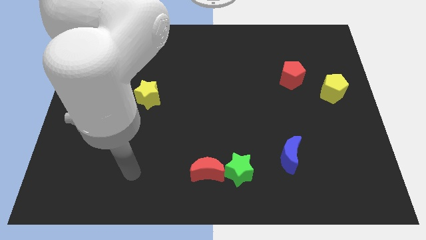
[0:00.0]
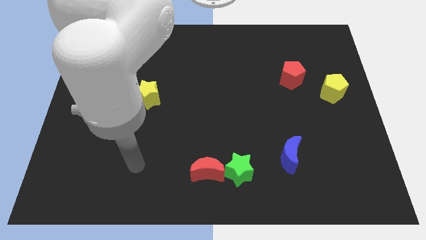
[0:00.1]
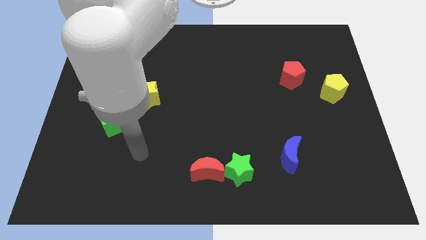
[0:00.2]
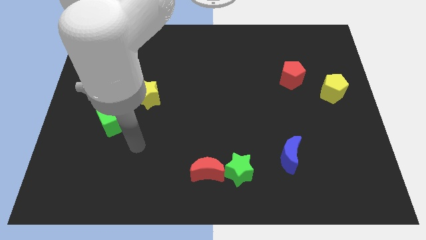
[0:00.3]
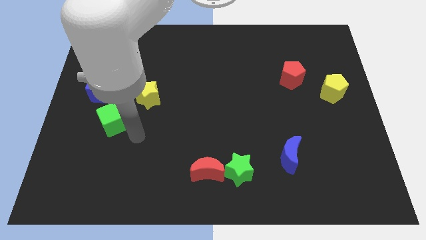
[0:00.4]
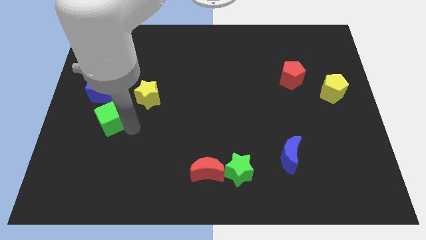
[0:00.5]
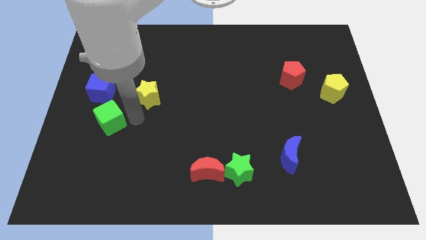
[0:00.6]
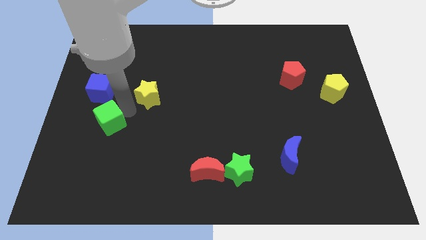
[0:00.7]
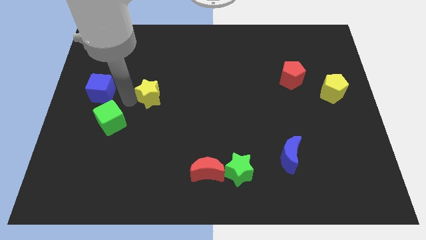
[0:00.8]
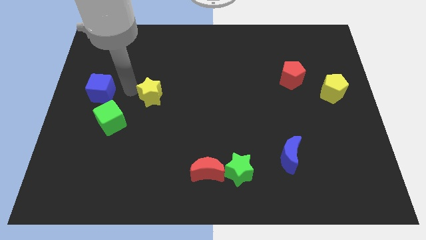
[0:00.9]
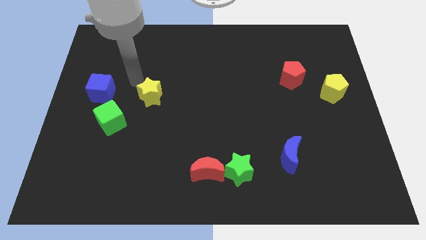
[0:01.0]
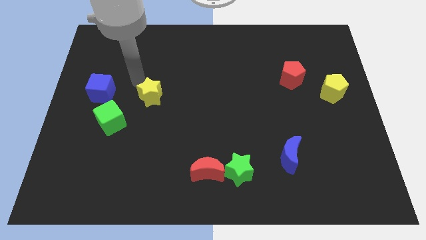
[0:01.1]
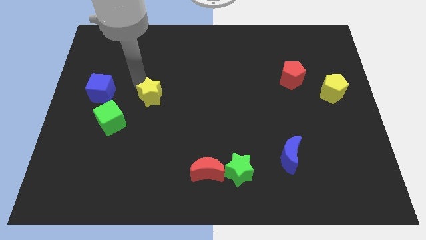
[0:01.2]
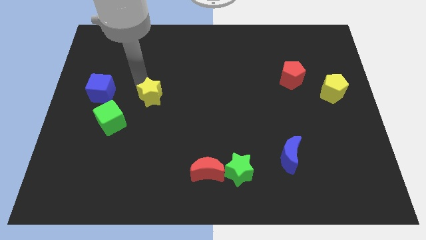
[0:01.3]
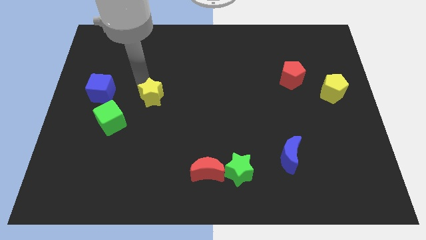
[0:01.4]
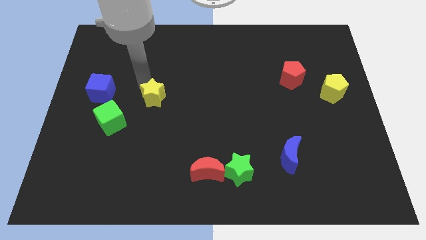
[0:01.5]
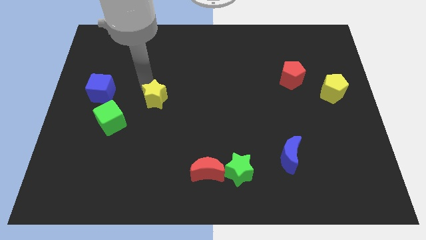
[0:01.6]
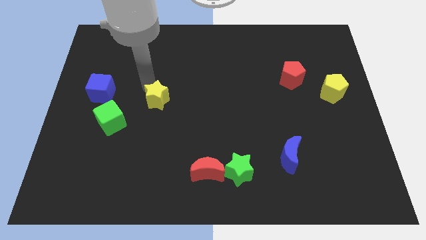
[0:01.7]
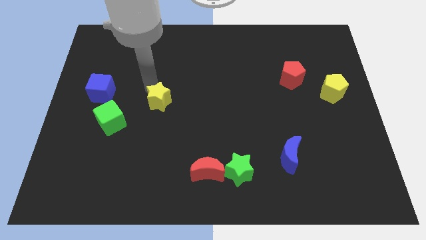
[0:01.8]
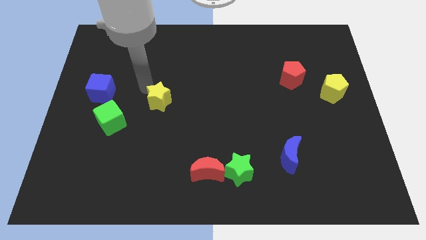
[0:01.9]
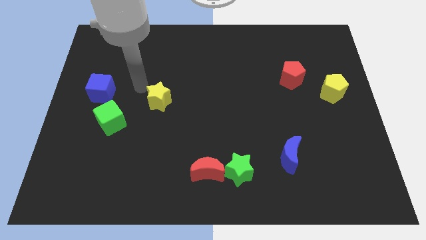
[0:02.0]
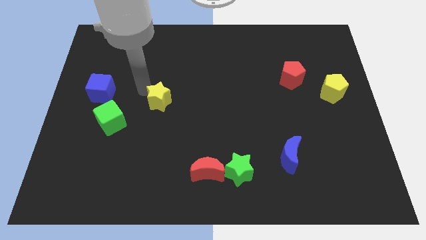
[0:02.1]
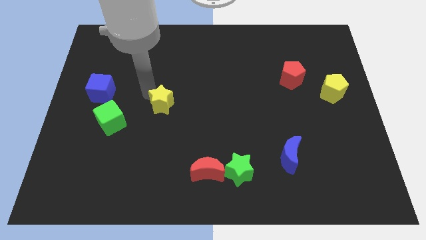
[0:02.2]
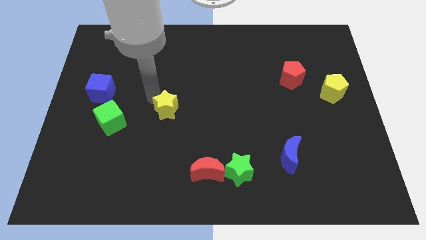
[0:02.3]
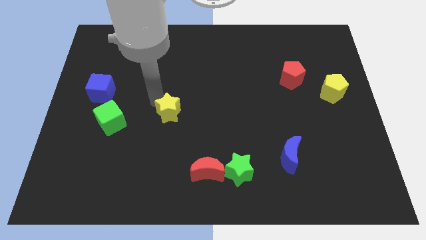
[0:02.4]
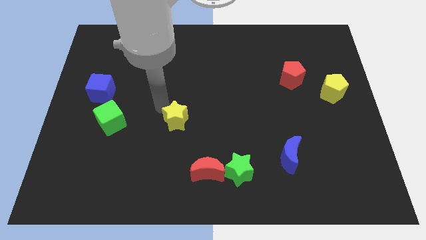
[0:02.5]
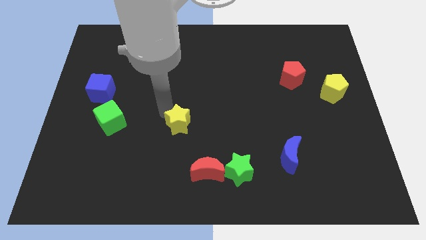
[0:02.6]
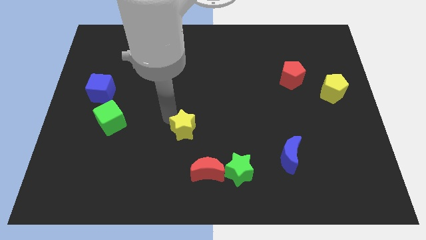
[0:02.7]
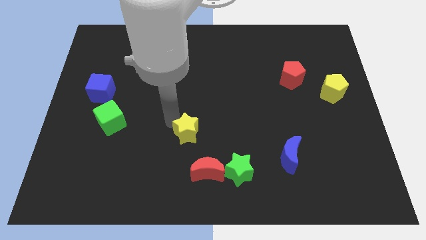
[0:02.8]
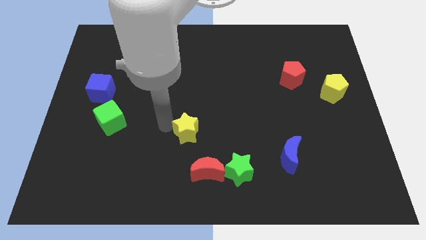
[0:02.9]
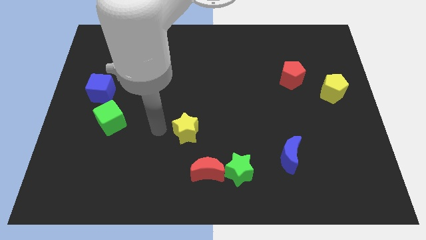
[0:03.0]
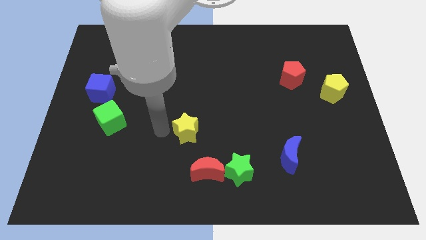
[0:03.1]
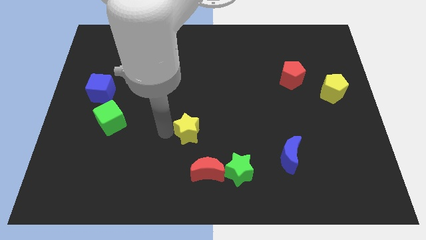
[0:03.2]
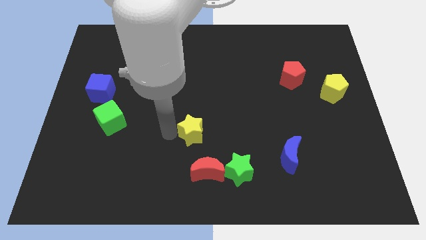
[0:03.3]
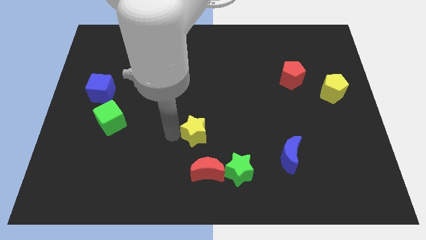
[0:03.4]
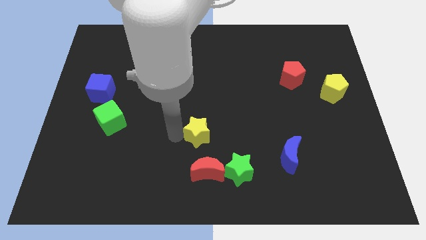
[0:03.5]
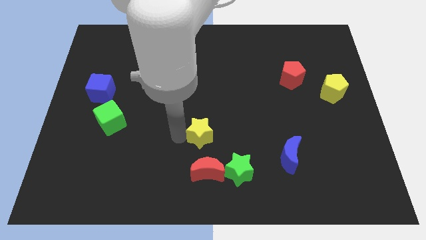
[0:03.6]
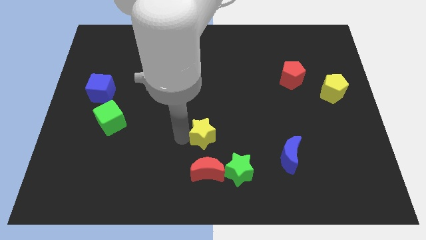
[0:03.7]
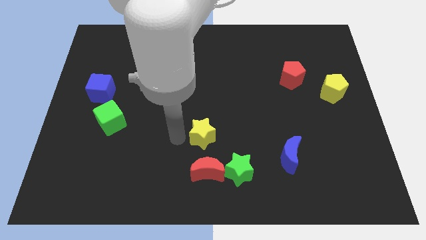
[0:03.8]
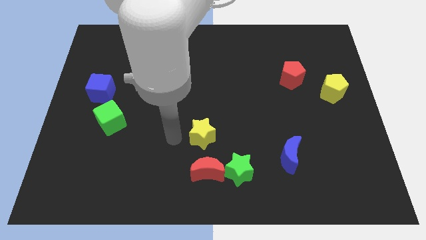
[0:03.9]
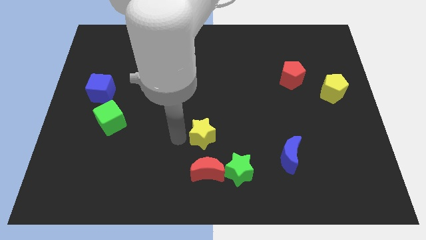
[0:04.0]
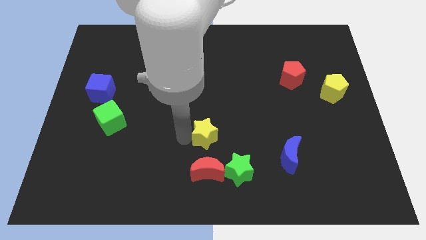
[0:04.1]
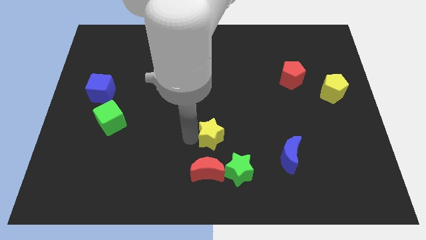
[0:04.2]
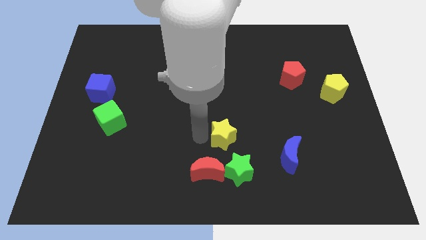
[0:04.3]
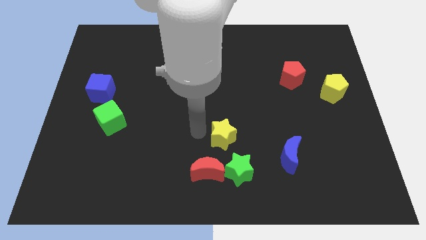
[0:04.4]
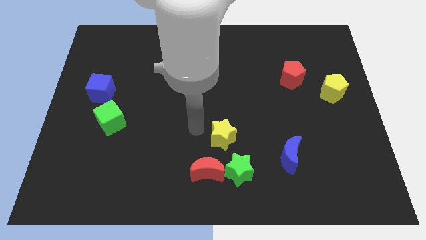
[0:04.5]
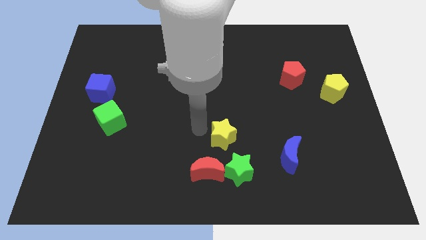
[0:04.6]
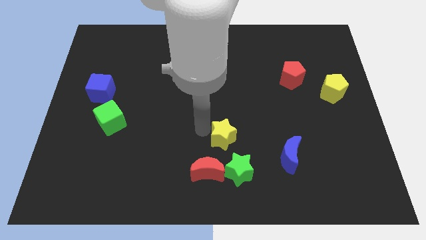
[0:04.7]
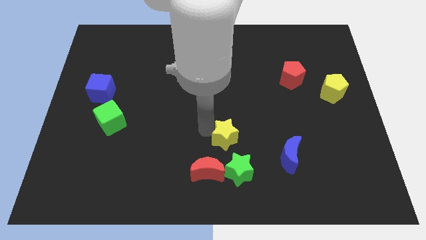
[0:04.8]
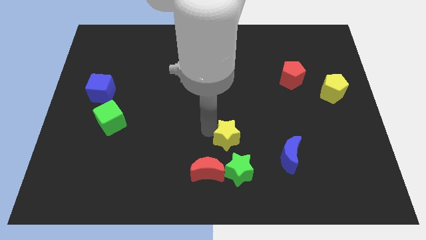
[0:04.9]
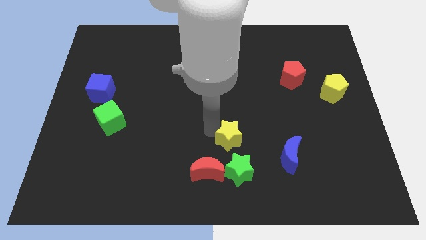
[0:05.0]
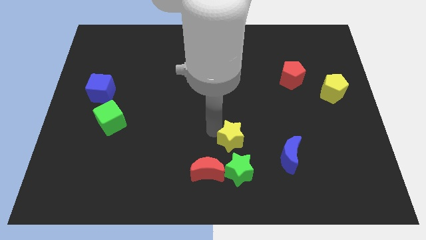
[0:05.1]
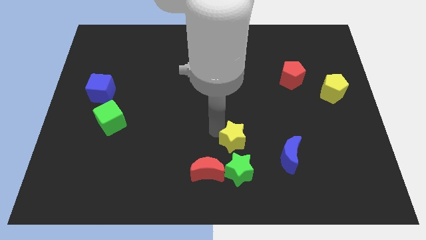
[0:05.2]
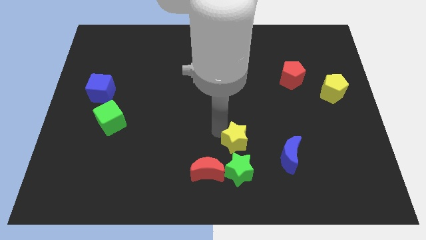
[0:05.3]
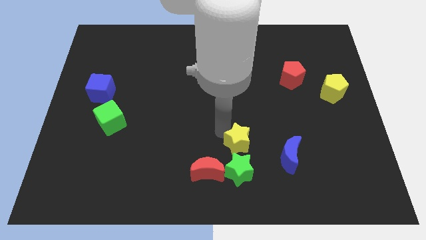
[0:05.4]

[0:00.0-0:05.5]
slide the yellow star to the top right side of the green star

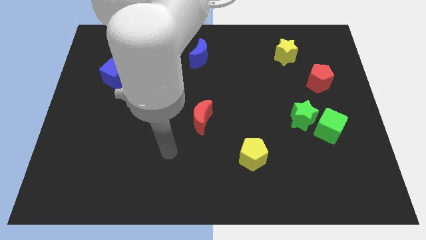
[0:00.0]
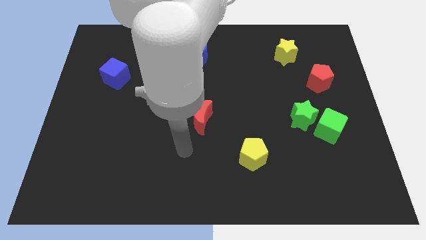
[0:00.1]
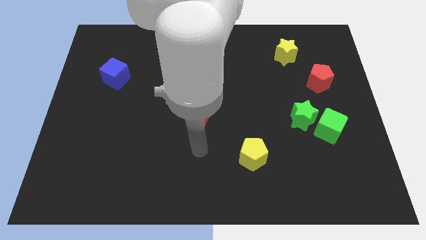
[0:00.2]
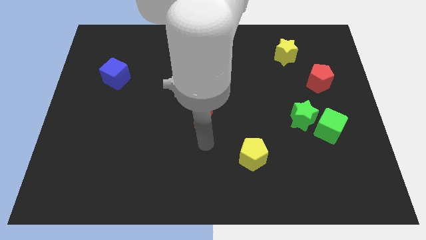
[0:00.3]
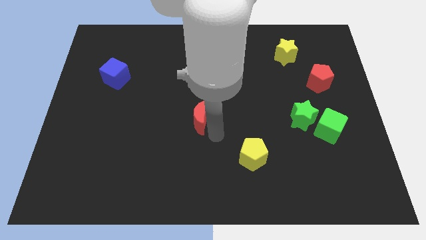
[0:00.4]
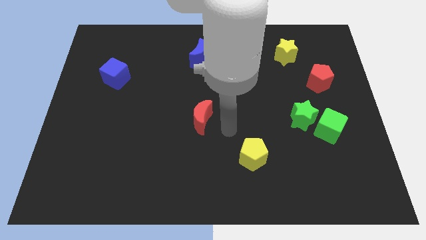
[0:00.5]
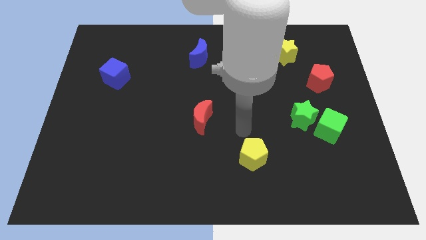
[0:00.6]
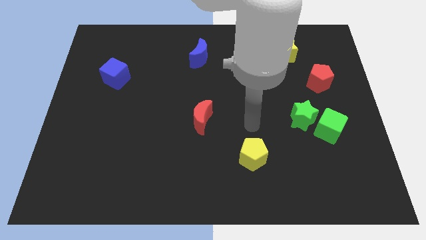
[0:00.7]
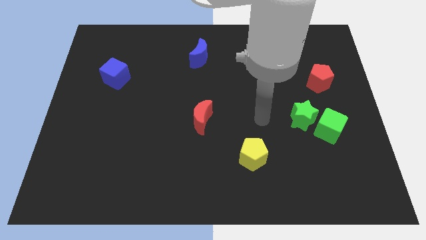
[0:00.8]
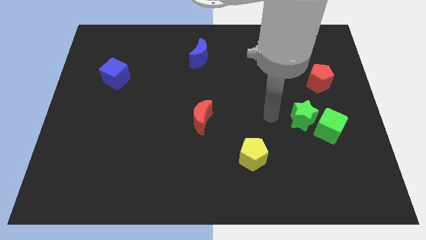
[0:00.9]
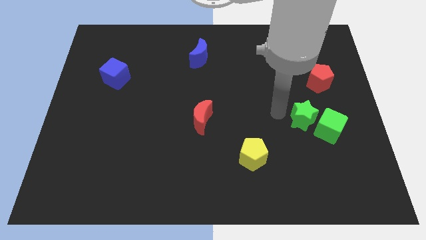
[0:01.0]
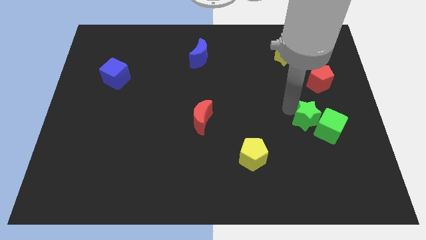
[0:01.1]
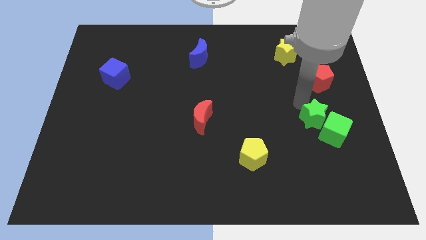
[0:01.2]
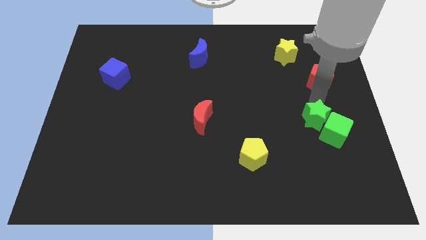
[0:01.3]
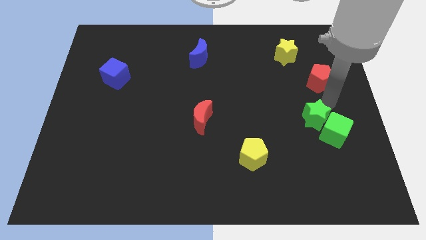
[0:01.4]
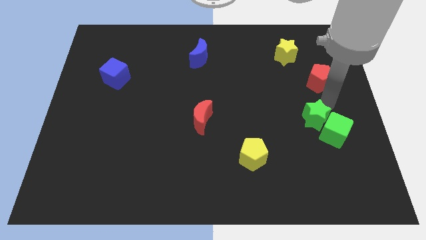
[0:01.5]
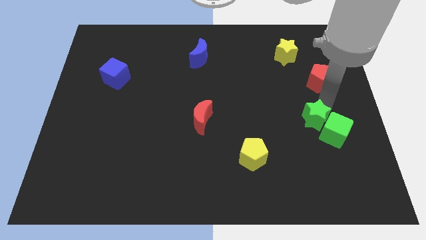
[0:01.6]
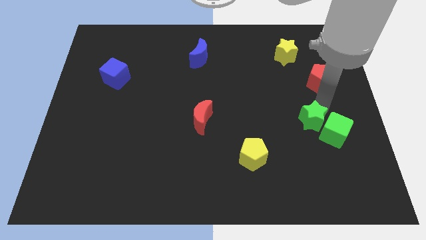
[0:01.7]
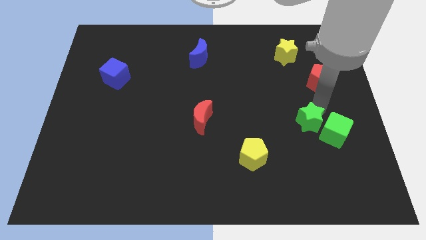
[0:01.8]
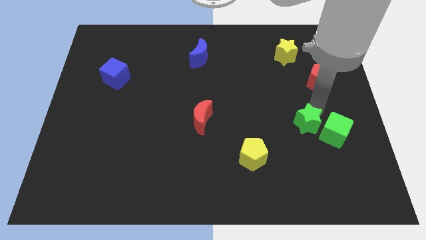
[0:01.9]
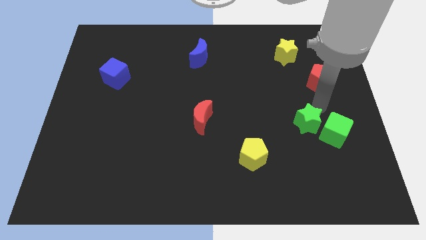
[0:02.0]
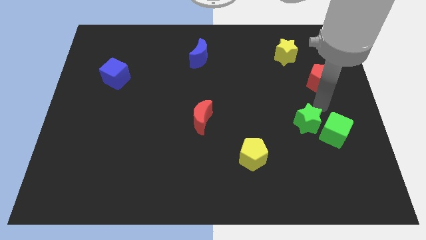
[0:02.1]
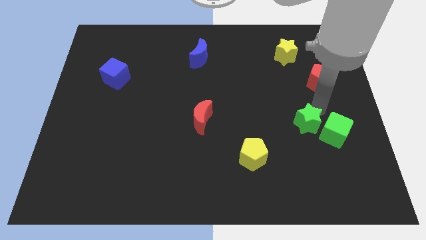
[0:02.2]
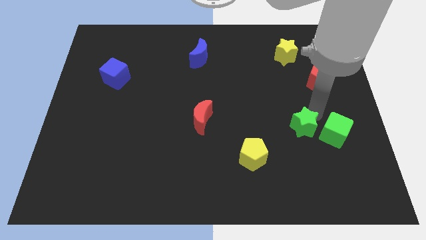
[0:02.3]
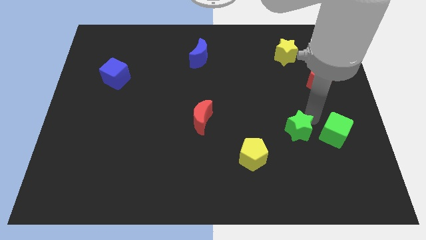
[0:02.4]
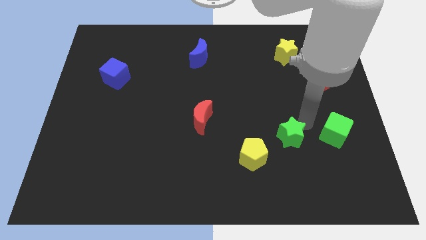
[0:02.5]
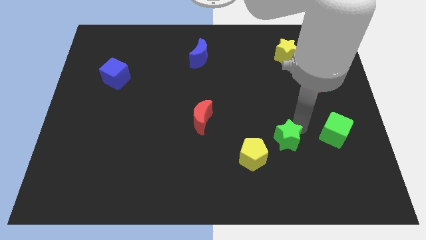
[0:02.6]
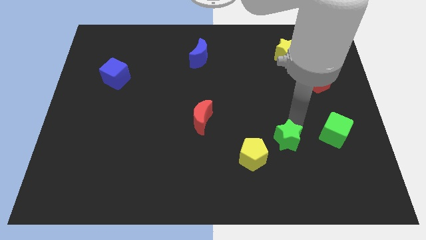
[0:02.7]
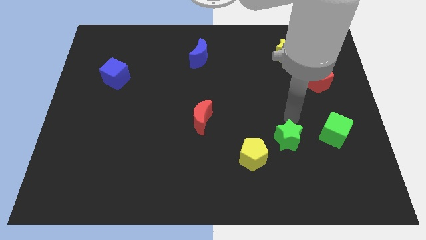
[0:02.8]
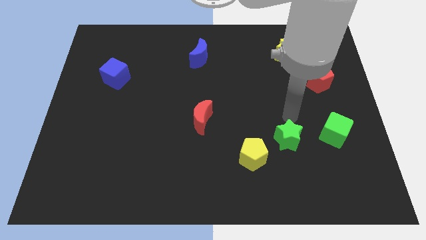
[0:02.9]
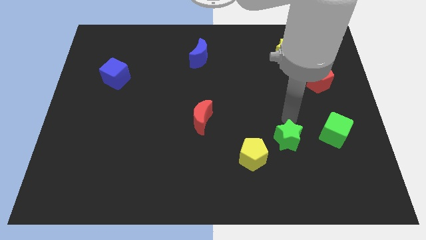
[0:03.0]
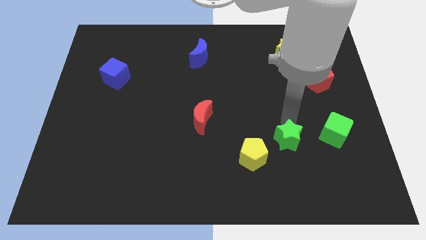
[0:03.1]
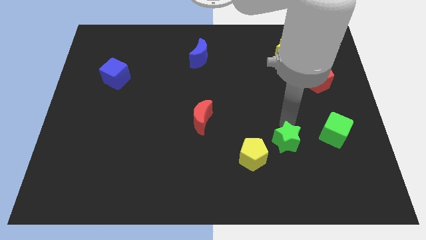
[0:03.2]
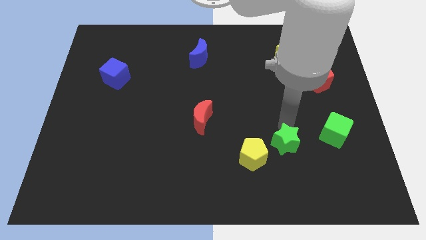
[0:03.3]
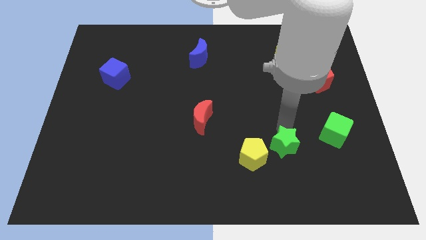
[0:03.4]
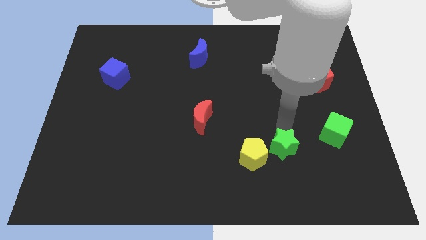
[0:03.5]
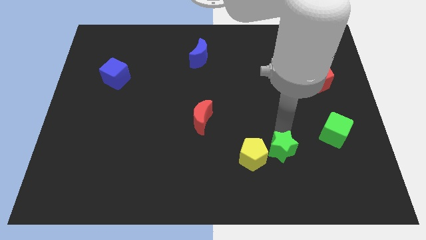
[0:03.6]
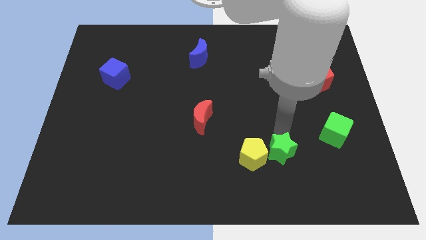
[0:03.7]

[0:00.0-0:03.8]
slide the green star to the bottom right of the yellow pentagon
